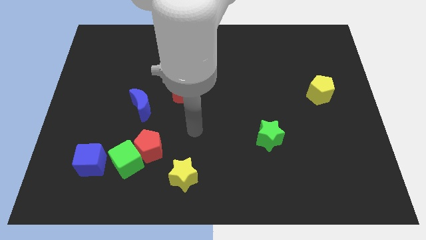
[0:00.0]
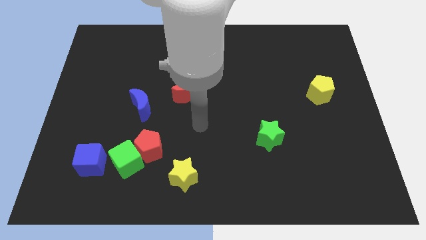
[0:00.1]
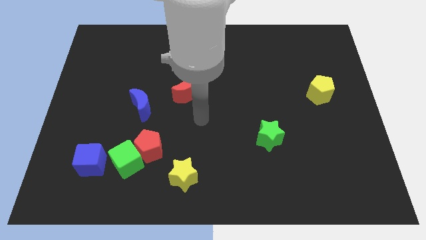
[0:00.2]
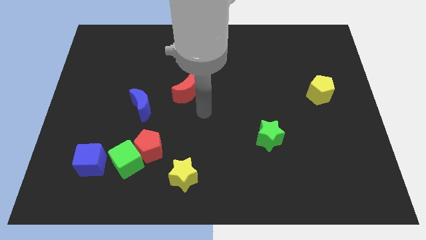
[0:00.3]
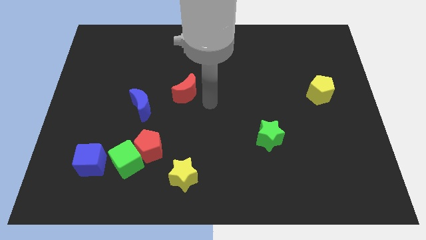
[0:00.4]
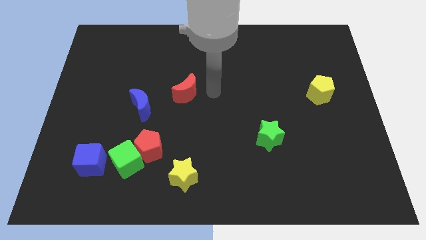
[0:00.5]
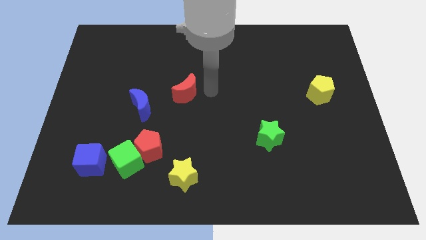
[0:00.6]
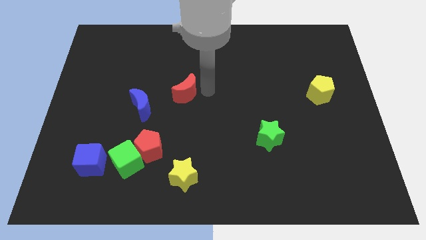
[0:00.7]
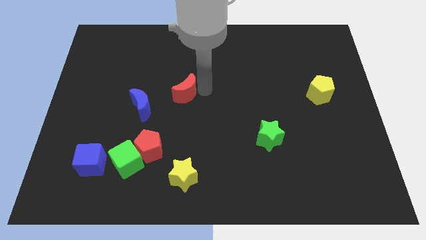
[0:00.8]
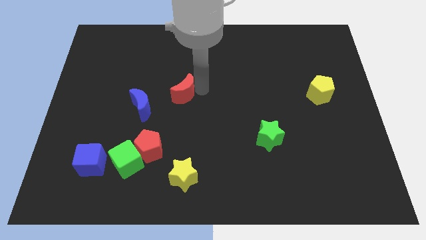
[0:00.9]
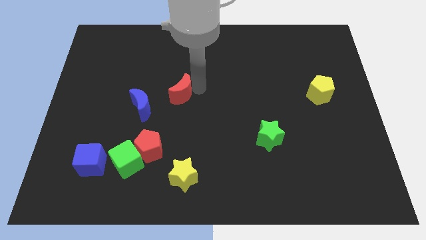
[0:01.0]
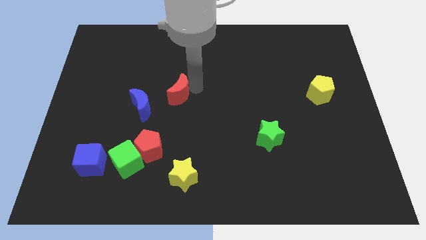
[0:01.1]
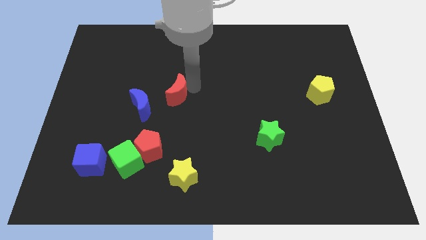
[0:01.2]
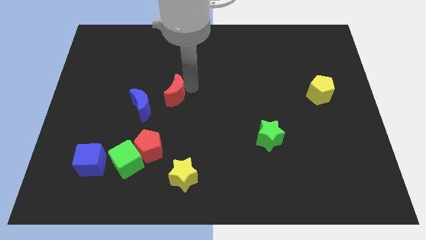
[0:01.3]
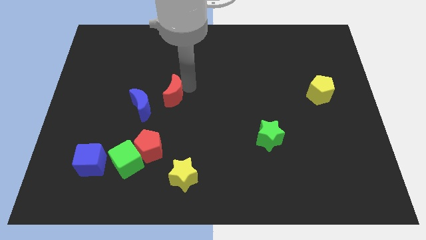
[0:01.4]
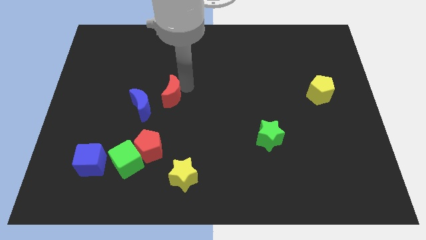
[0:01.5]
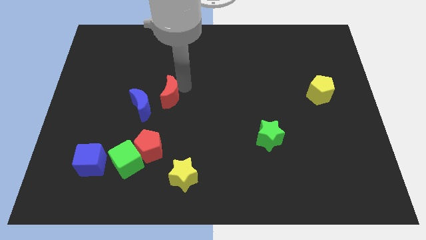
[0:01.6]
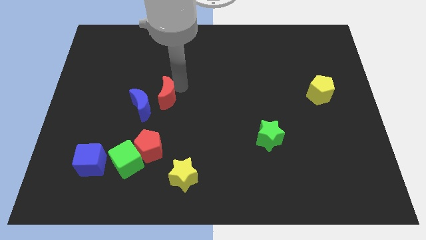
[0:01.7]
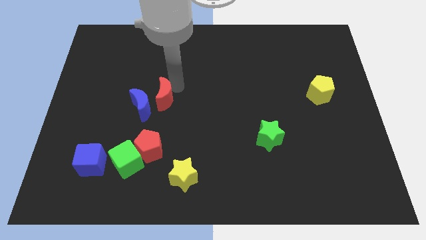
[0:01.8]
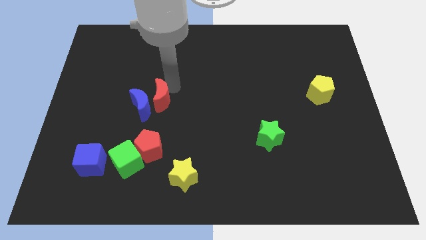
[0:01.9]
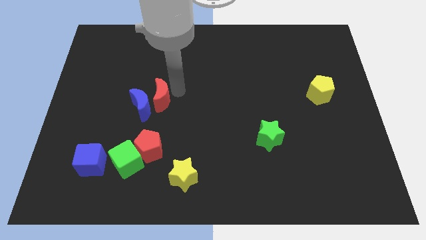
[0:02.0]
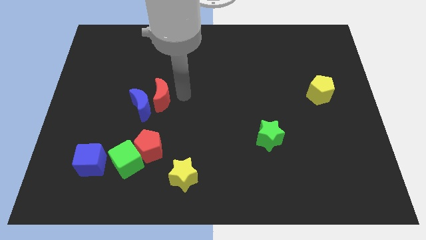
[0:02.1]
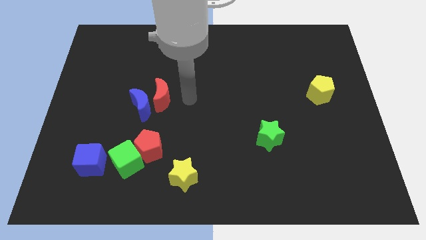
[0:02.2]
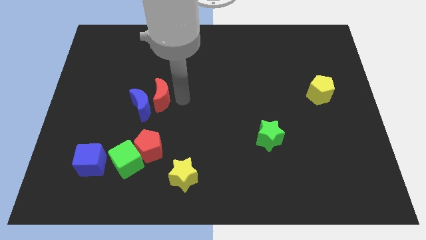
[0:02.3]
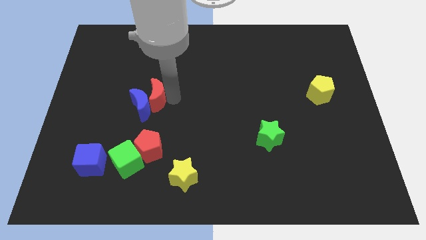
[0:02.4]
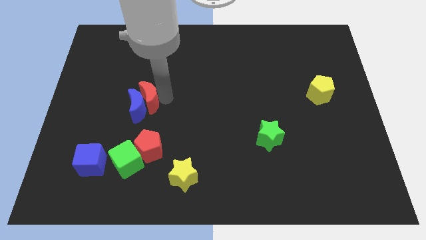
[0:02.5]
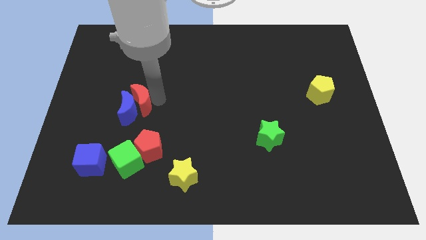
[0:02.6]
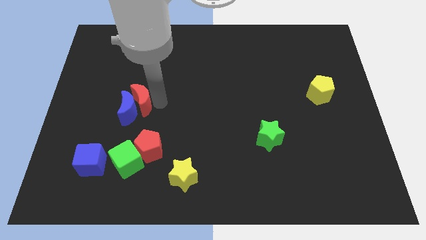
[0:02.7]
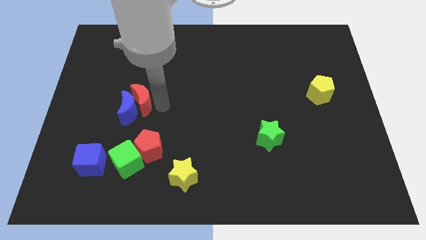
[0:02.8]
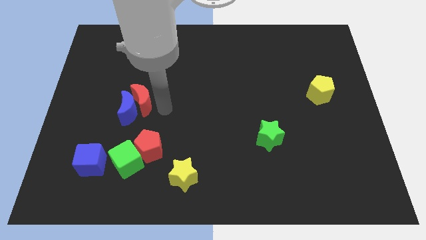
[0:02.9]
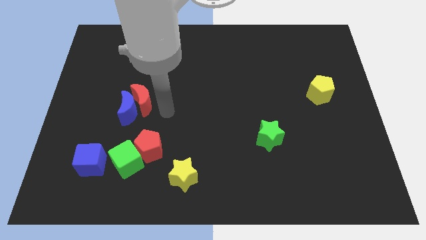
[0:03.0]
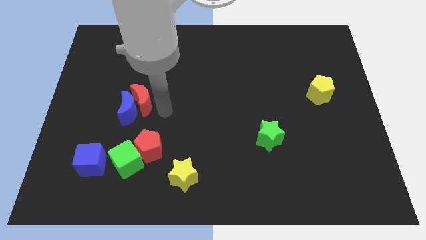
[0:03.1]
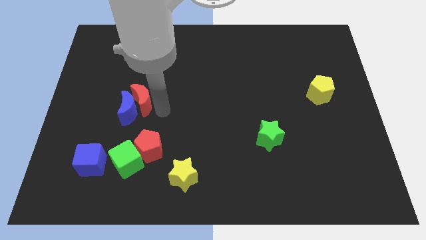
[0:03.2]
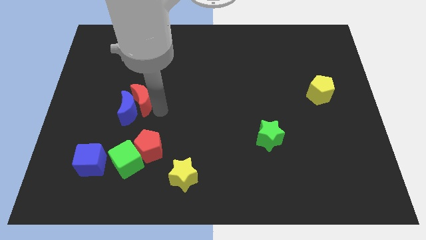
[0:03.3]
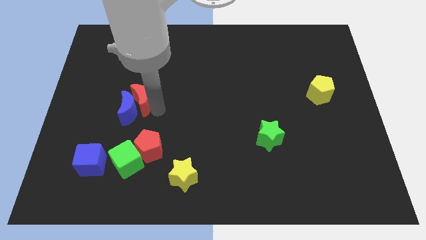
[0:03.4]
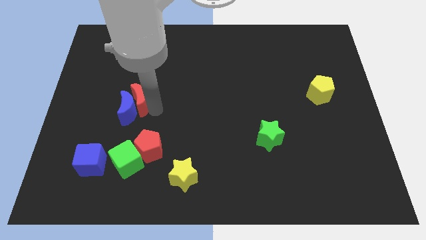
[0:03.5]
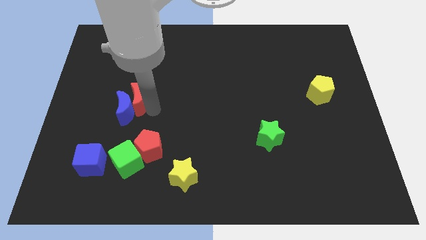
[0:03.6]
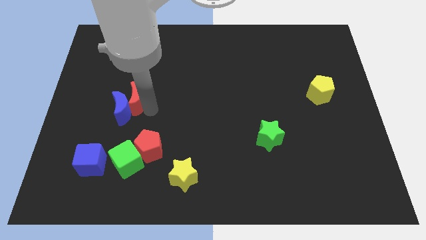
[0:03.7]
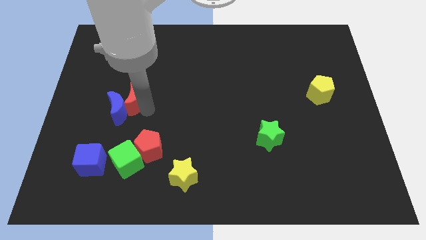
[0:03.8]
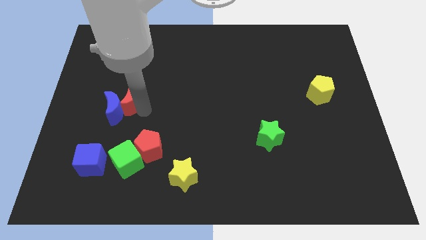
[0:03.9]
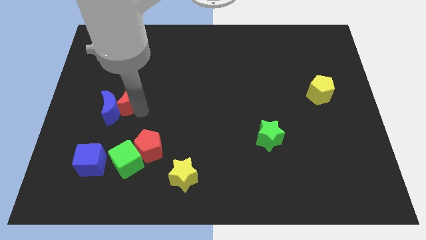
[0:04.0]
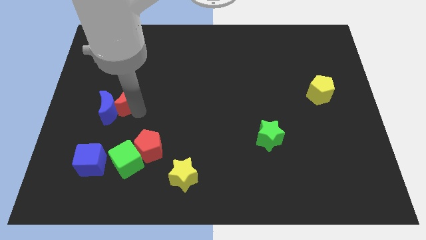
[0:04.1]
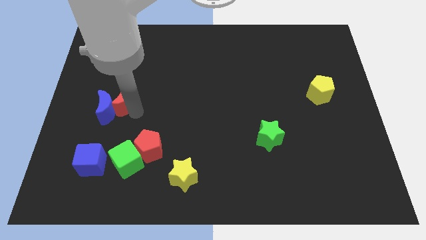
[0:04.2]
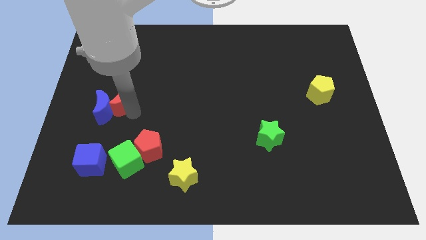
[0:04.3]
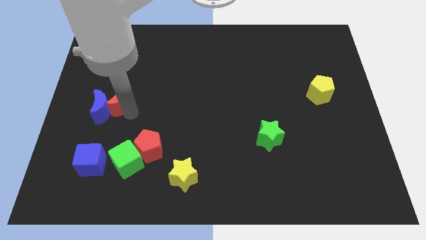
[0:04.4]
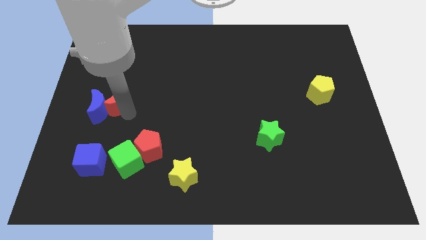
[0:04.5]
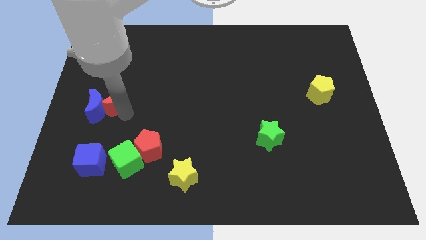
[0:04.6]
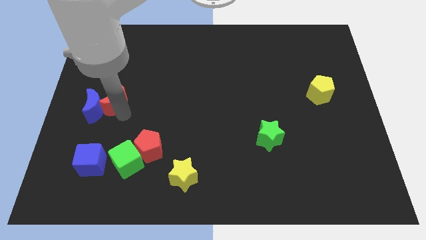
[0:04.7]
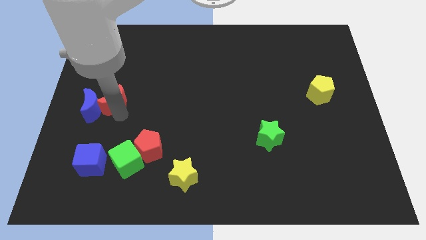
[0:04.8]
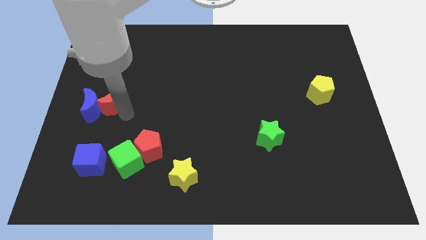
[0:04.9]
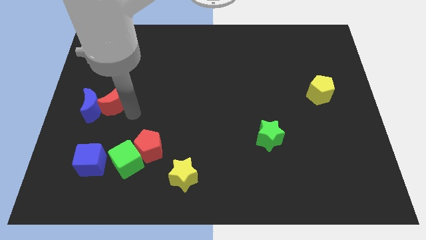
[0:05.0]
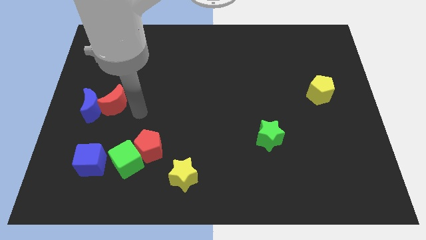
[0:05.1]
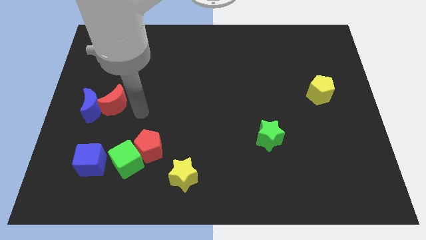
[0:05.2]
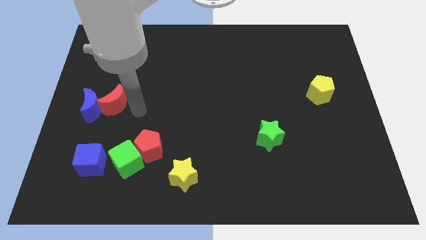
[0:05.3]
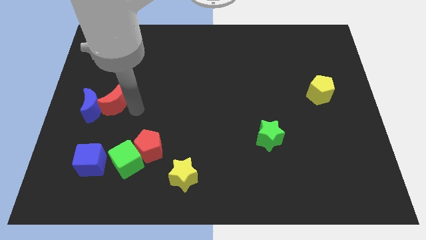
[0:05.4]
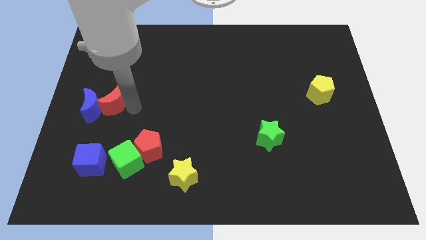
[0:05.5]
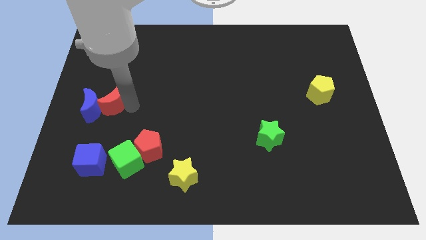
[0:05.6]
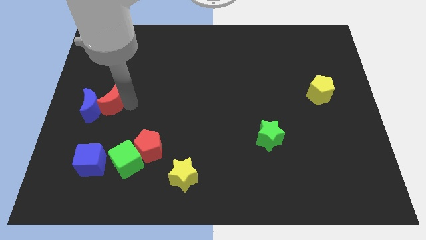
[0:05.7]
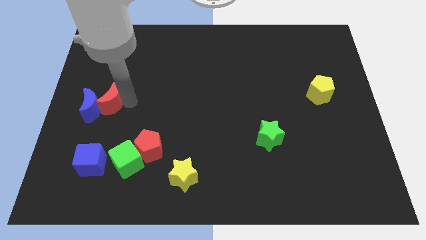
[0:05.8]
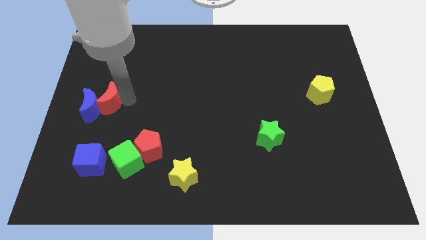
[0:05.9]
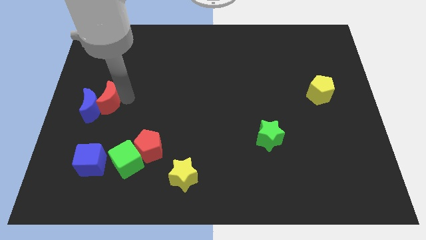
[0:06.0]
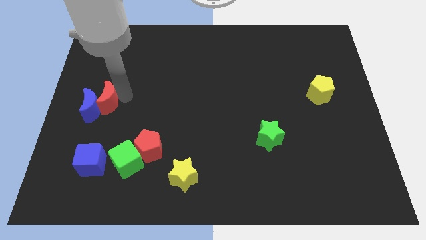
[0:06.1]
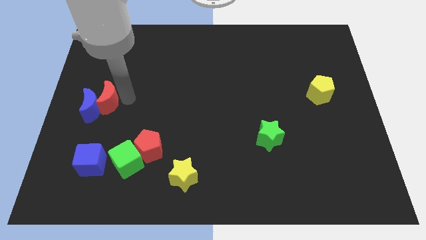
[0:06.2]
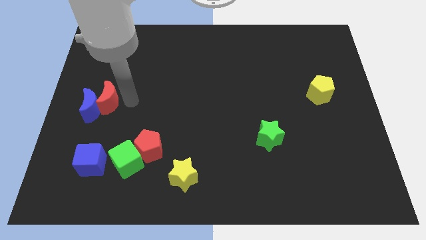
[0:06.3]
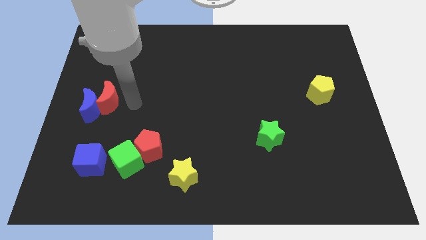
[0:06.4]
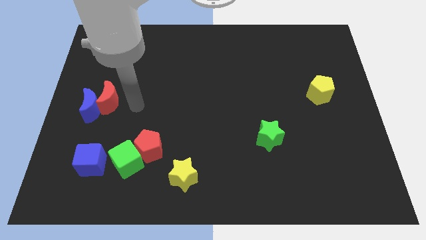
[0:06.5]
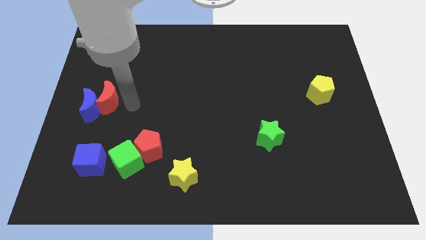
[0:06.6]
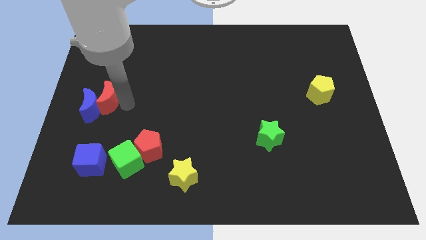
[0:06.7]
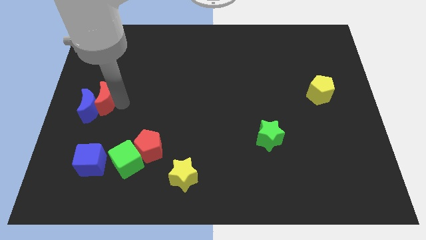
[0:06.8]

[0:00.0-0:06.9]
slide the red moon to the center left
